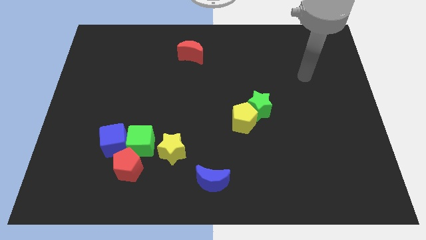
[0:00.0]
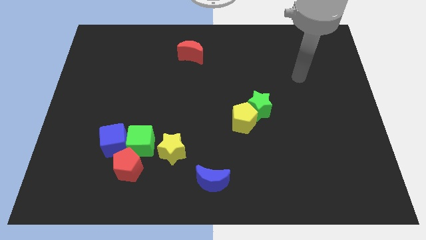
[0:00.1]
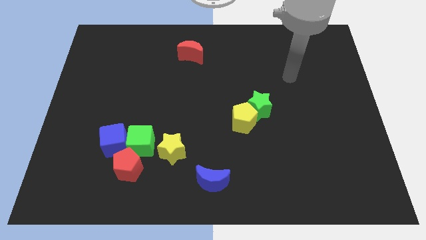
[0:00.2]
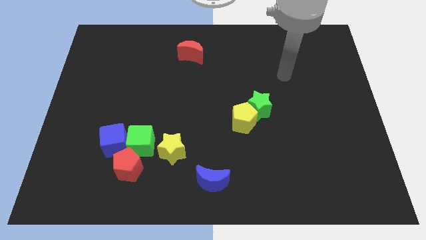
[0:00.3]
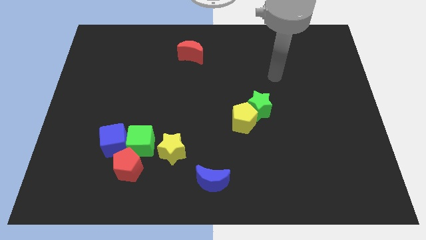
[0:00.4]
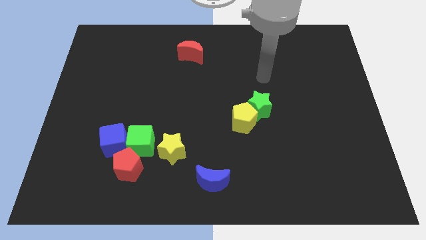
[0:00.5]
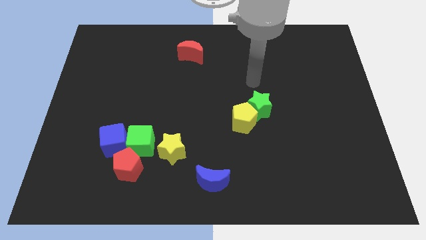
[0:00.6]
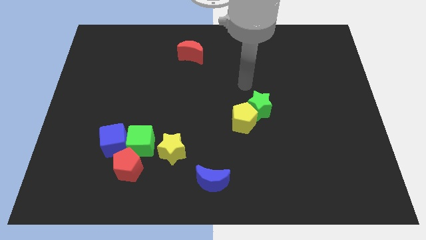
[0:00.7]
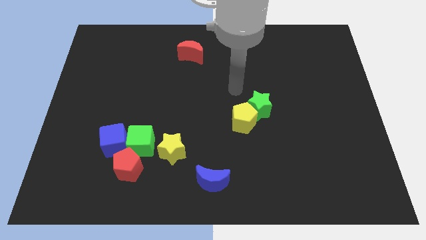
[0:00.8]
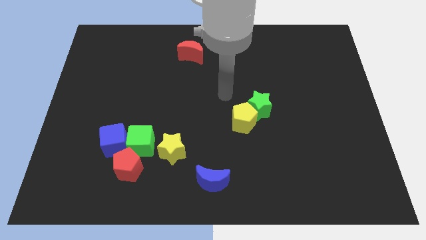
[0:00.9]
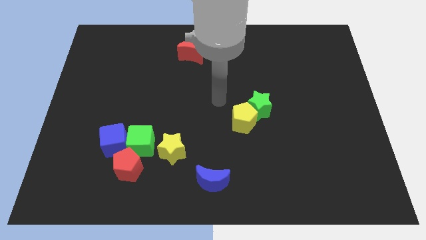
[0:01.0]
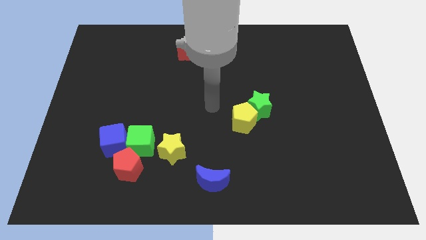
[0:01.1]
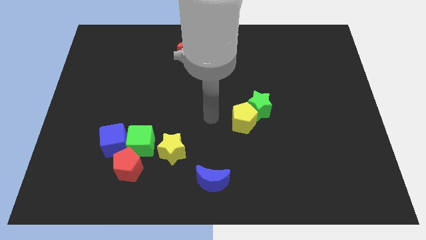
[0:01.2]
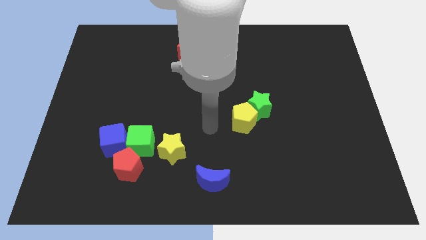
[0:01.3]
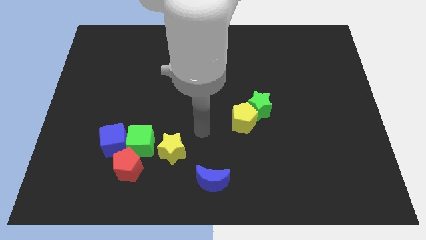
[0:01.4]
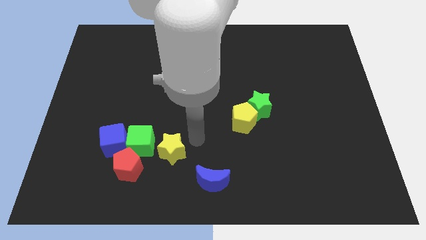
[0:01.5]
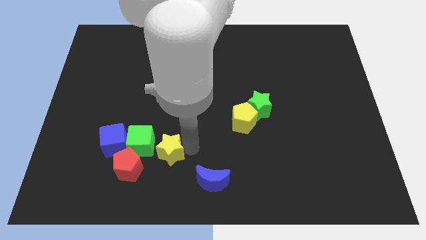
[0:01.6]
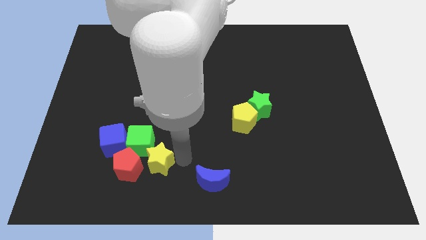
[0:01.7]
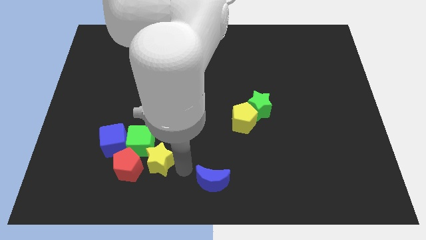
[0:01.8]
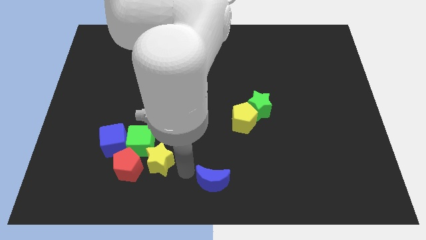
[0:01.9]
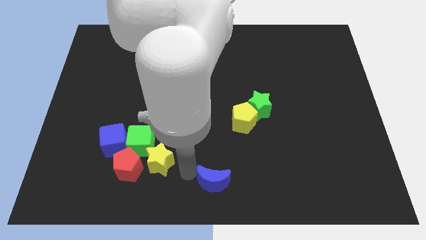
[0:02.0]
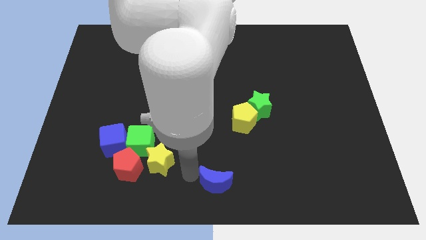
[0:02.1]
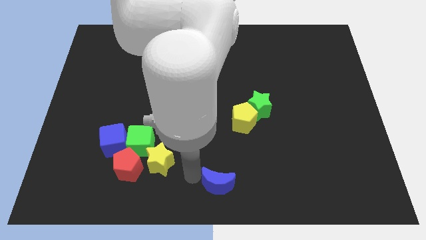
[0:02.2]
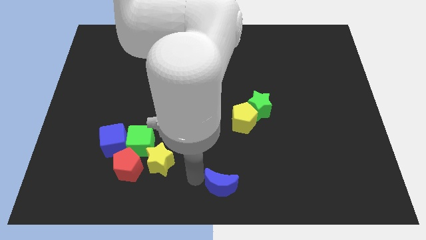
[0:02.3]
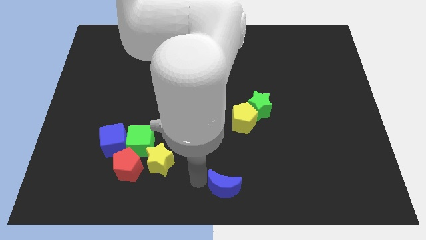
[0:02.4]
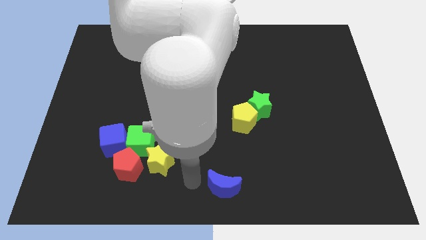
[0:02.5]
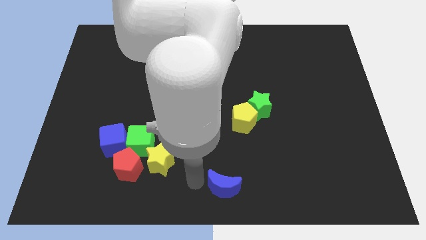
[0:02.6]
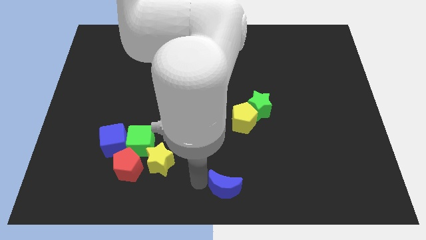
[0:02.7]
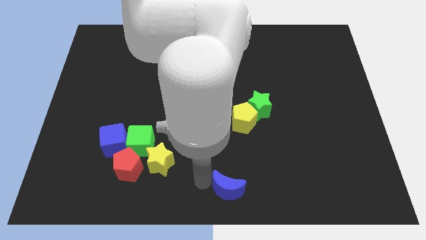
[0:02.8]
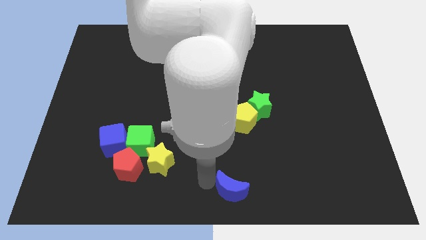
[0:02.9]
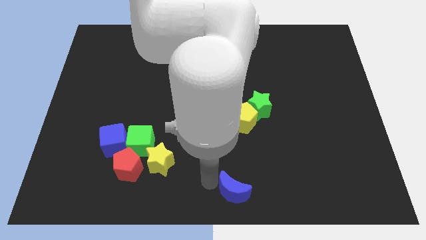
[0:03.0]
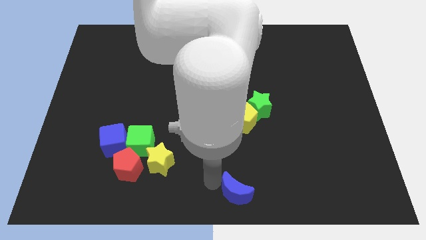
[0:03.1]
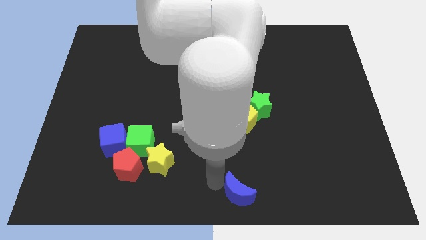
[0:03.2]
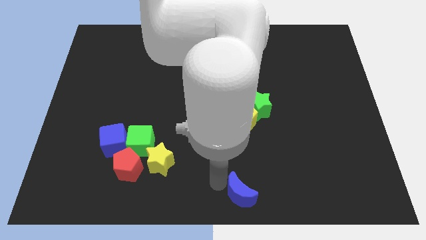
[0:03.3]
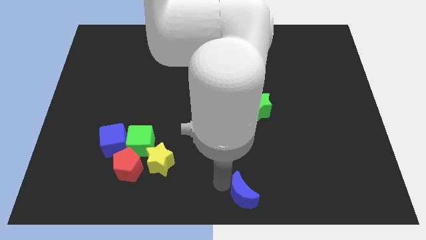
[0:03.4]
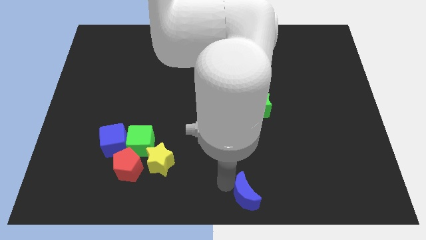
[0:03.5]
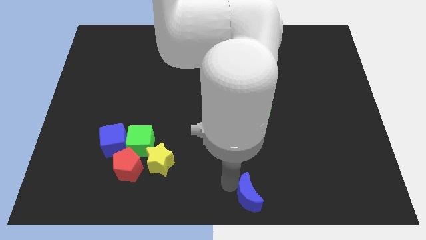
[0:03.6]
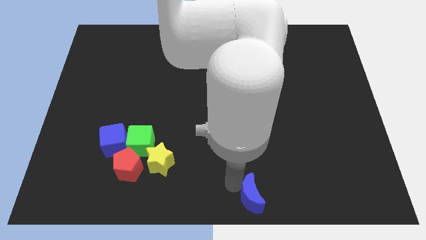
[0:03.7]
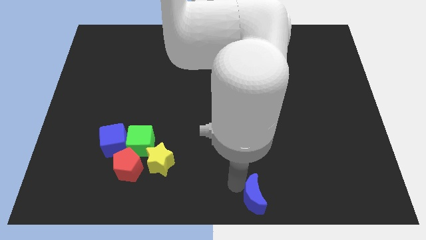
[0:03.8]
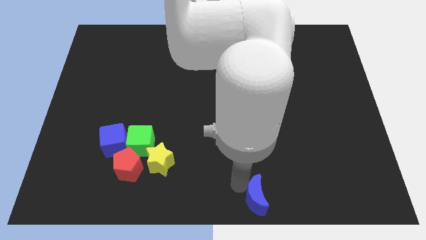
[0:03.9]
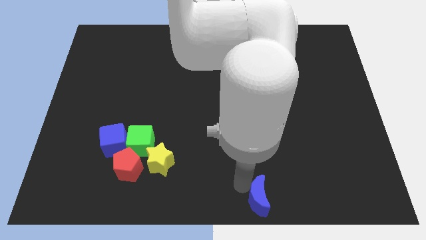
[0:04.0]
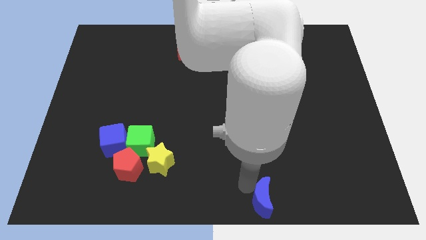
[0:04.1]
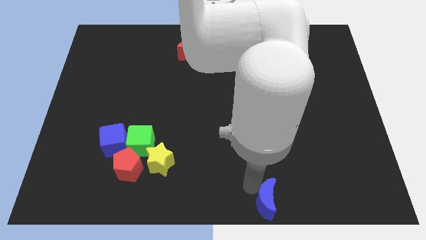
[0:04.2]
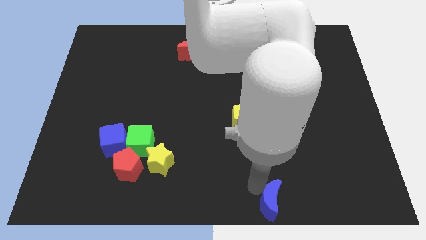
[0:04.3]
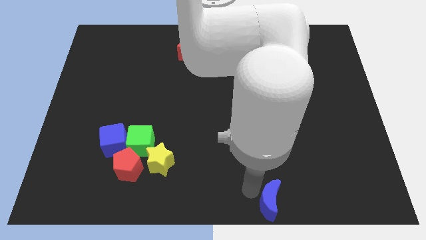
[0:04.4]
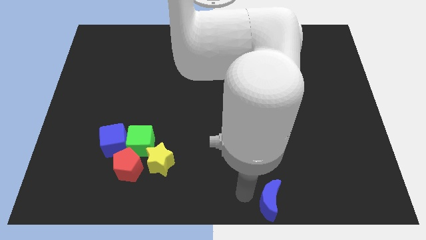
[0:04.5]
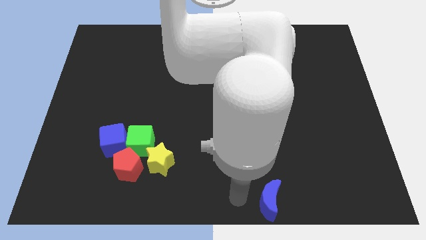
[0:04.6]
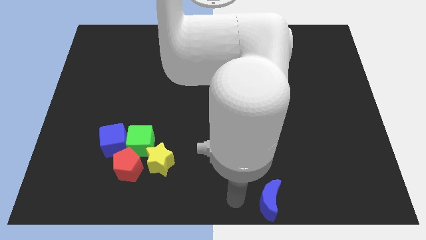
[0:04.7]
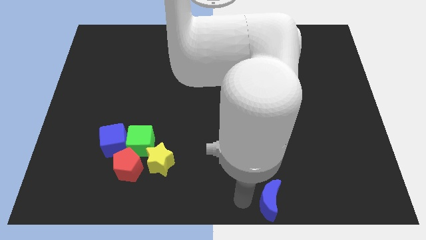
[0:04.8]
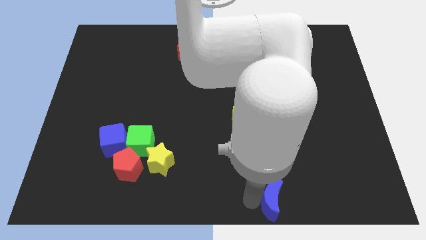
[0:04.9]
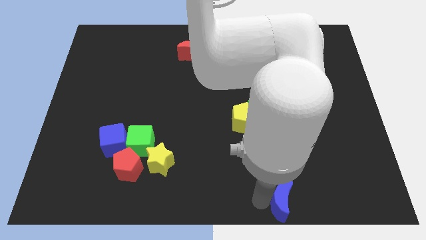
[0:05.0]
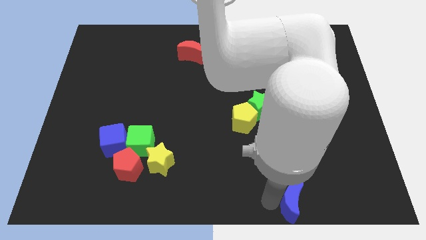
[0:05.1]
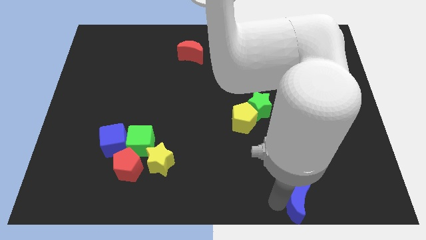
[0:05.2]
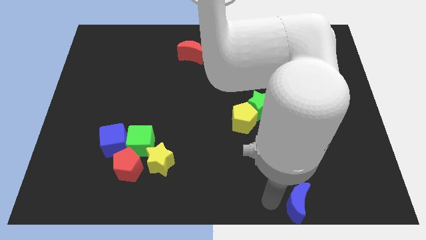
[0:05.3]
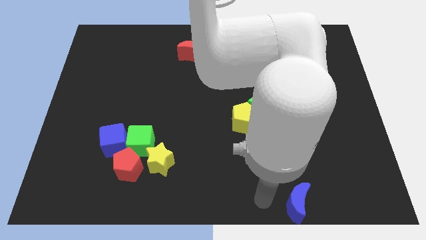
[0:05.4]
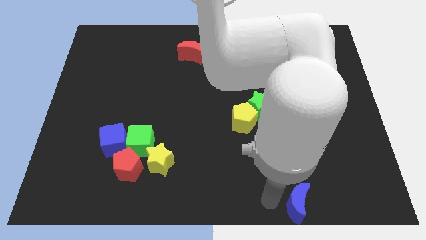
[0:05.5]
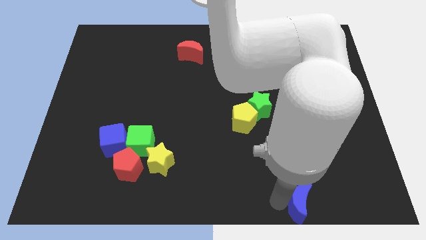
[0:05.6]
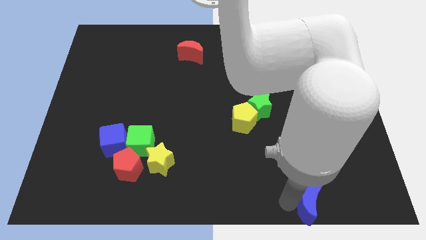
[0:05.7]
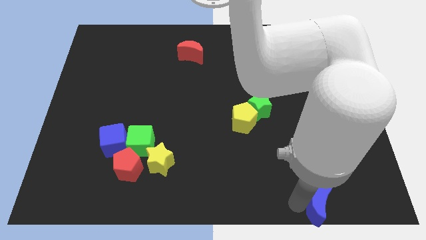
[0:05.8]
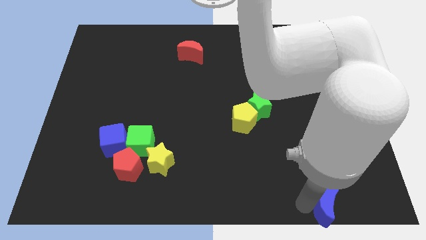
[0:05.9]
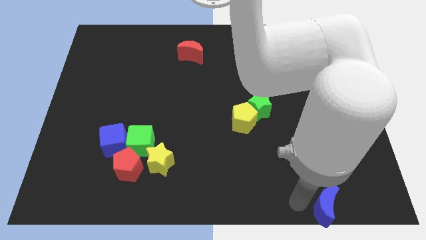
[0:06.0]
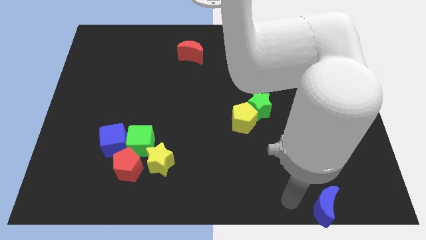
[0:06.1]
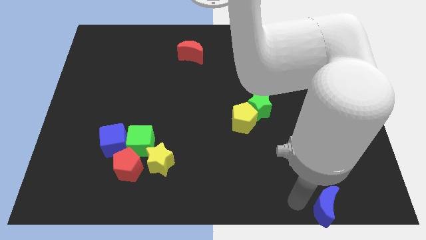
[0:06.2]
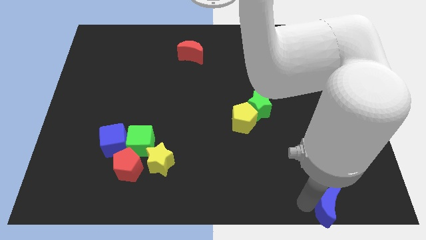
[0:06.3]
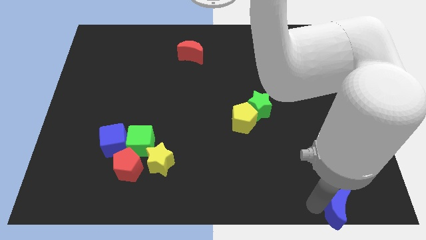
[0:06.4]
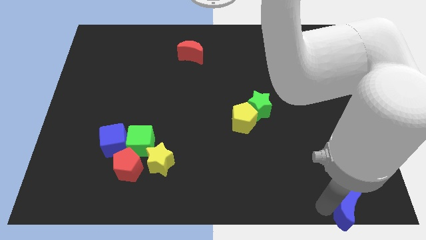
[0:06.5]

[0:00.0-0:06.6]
slide the blue moon to the lower right corner
